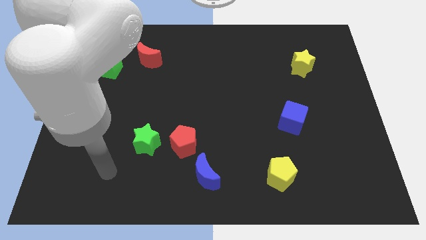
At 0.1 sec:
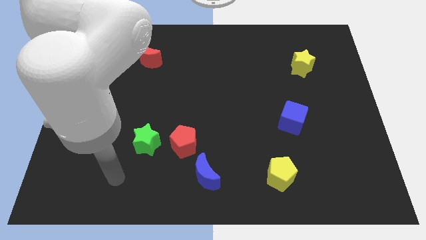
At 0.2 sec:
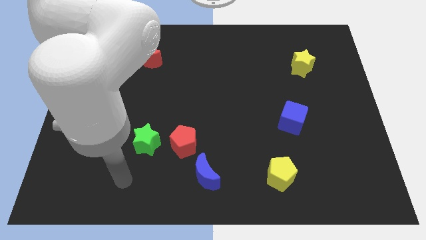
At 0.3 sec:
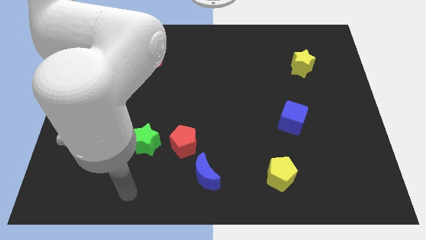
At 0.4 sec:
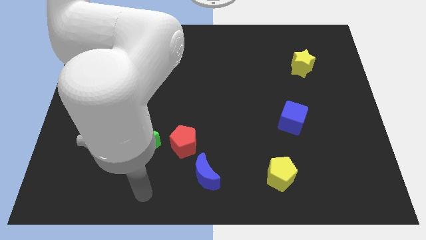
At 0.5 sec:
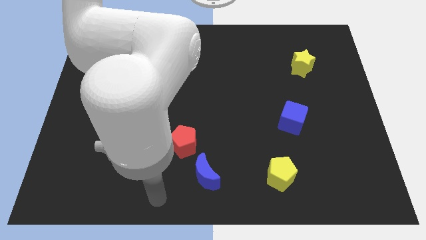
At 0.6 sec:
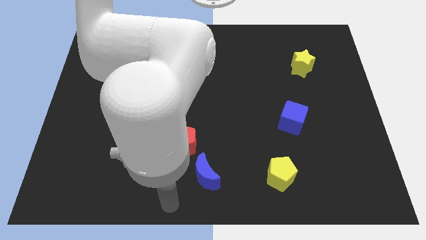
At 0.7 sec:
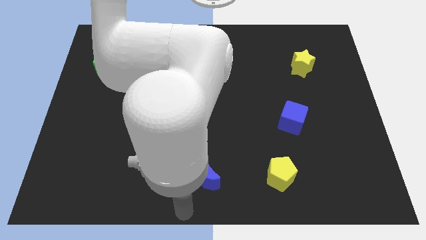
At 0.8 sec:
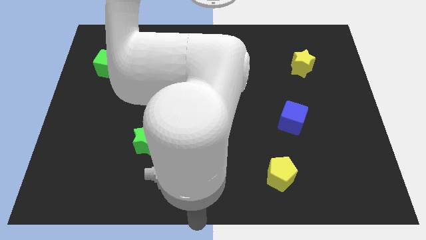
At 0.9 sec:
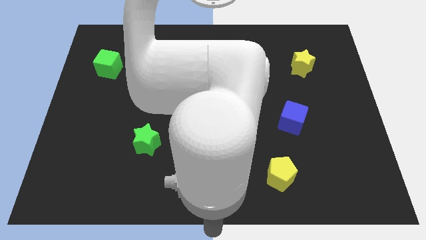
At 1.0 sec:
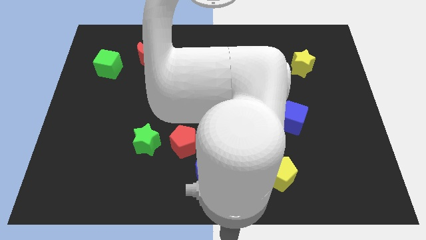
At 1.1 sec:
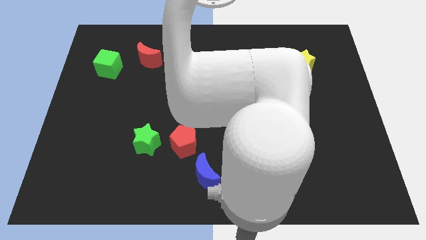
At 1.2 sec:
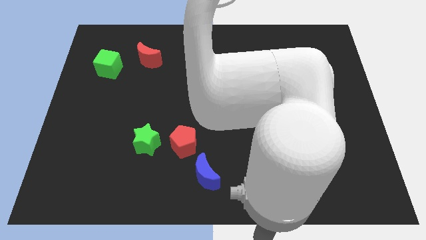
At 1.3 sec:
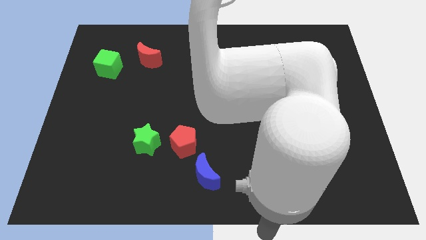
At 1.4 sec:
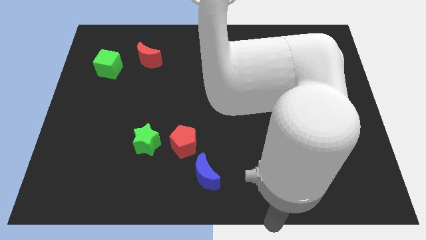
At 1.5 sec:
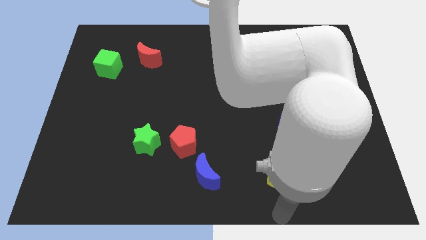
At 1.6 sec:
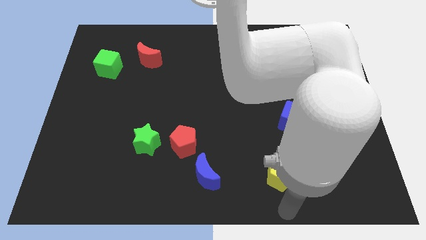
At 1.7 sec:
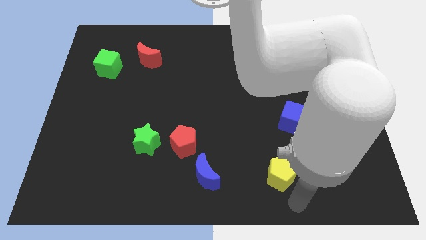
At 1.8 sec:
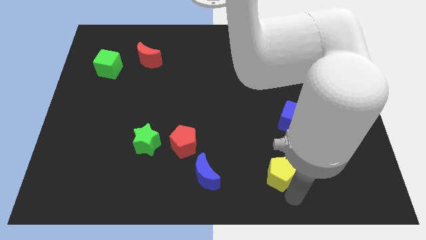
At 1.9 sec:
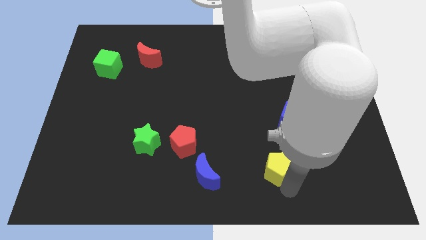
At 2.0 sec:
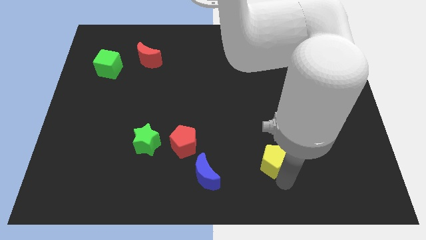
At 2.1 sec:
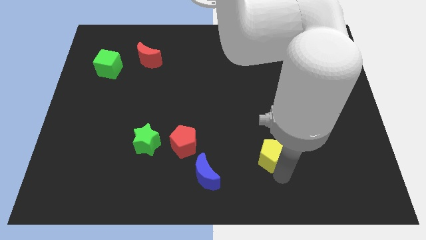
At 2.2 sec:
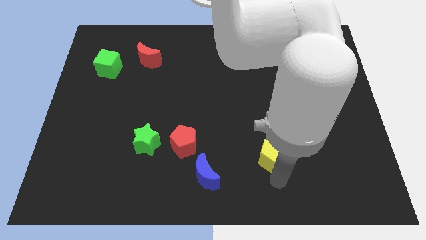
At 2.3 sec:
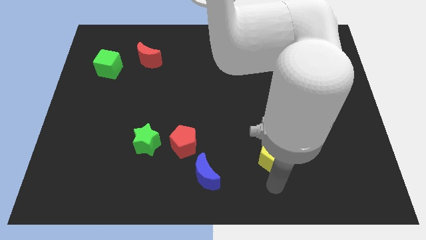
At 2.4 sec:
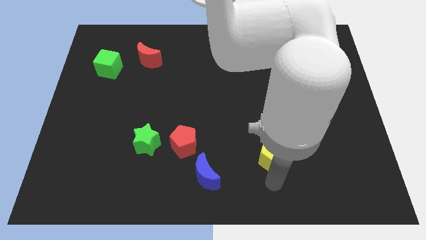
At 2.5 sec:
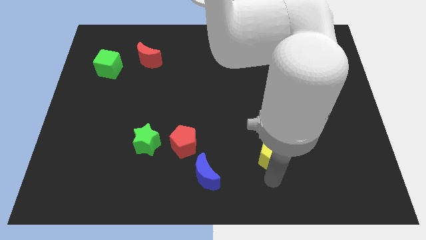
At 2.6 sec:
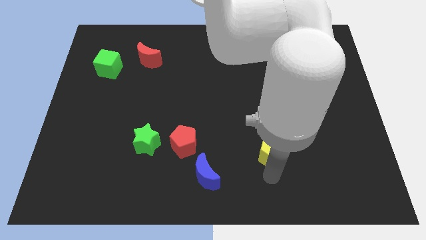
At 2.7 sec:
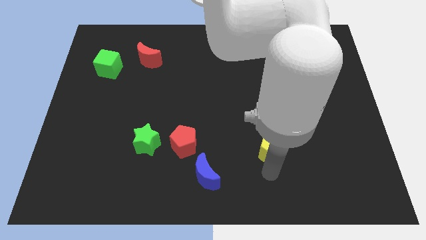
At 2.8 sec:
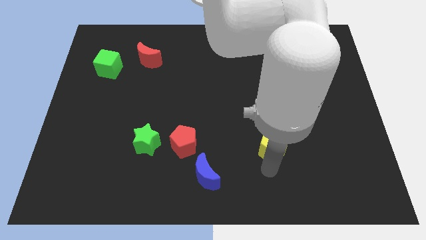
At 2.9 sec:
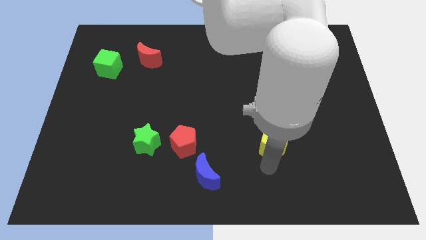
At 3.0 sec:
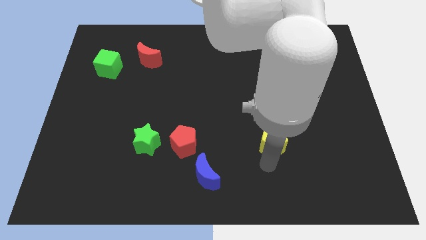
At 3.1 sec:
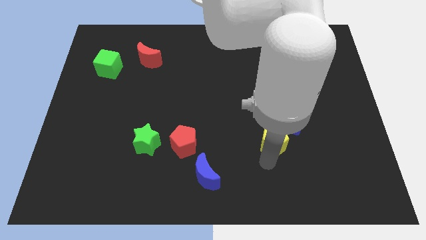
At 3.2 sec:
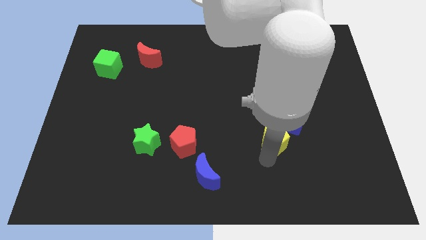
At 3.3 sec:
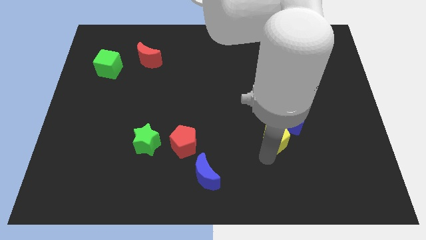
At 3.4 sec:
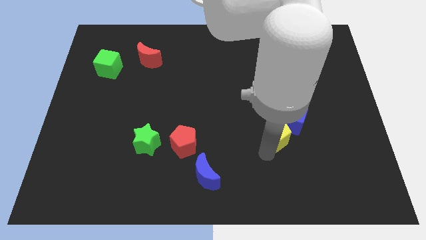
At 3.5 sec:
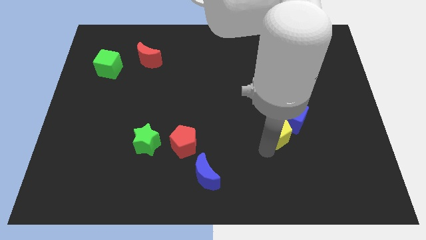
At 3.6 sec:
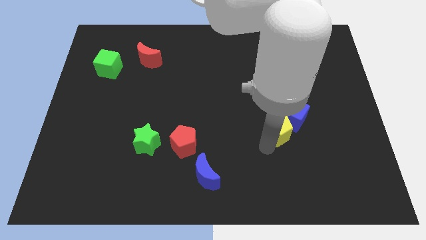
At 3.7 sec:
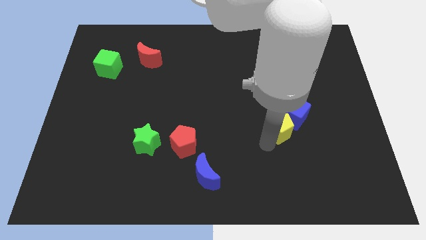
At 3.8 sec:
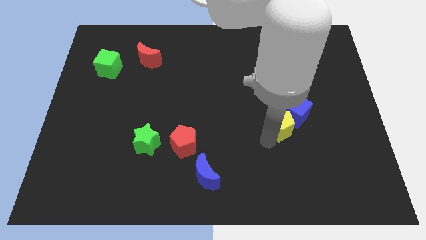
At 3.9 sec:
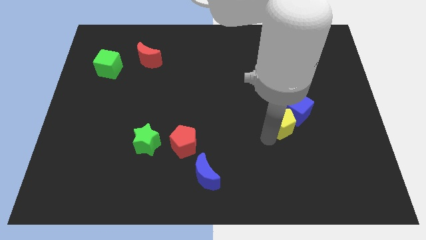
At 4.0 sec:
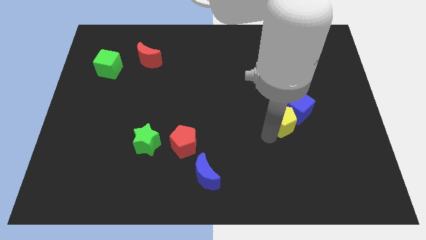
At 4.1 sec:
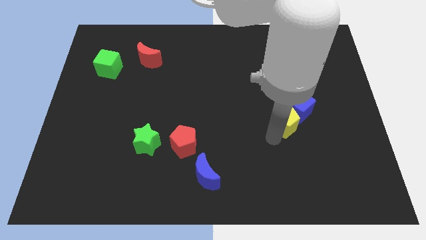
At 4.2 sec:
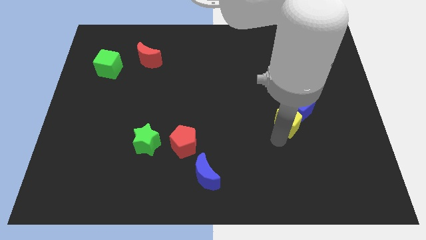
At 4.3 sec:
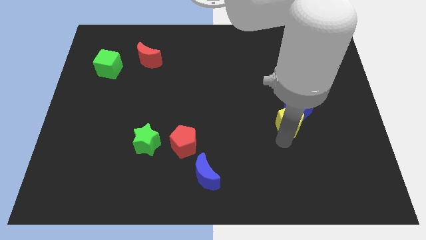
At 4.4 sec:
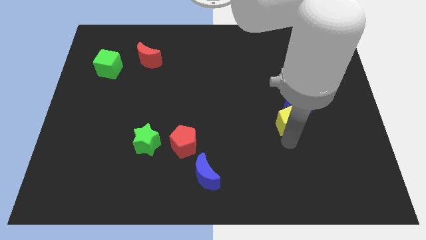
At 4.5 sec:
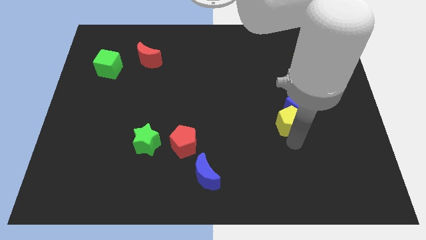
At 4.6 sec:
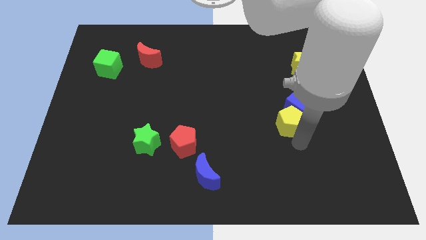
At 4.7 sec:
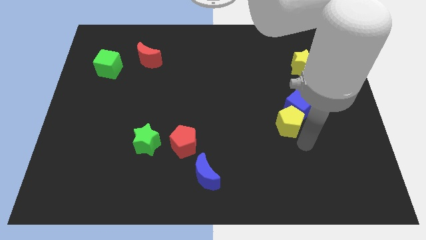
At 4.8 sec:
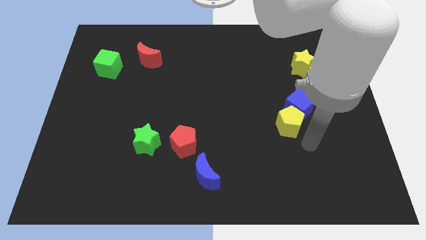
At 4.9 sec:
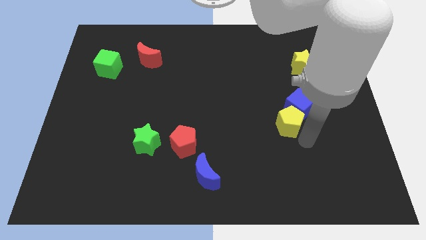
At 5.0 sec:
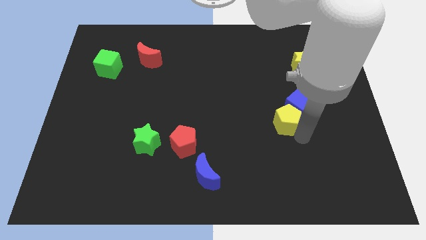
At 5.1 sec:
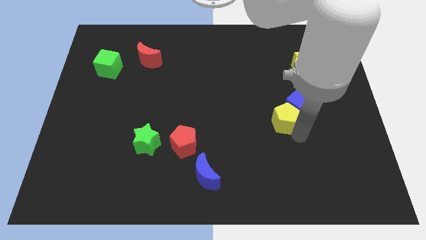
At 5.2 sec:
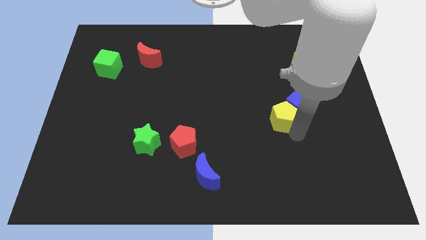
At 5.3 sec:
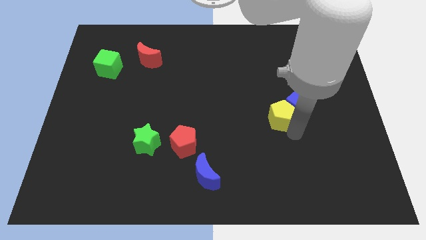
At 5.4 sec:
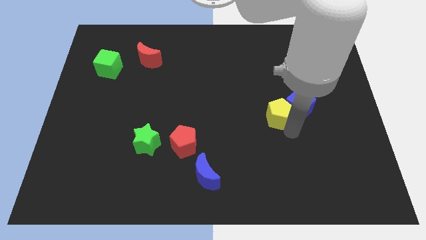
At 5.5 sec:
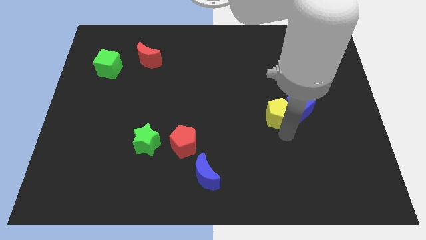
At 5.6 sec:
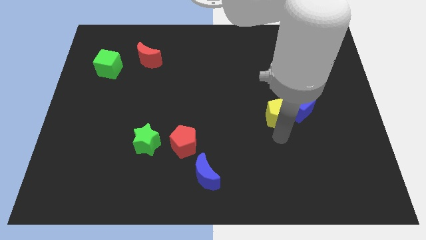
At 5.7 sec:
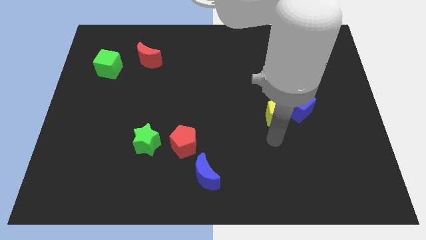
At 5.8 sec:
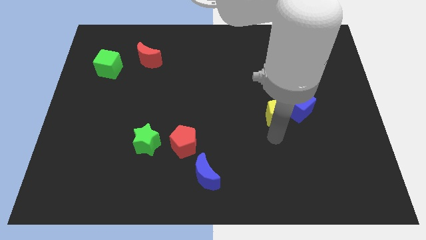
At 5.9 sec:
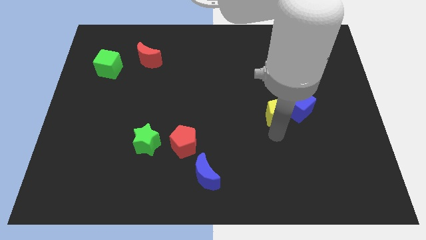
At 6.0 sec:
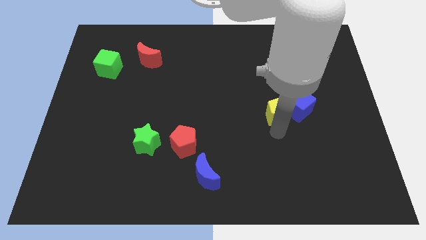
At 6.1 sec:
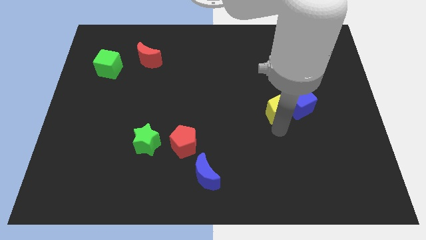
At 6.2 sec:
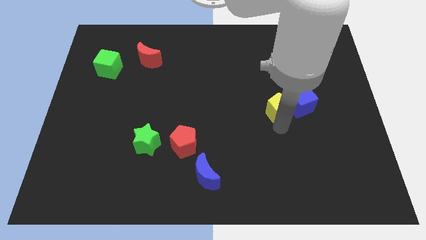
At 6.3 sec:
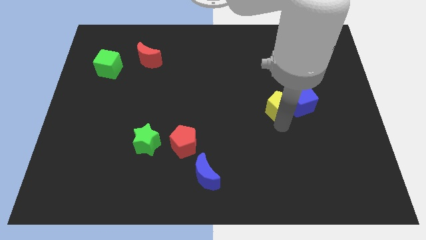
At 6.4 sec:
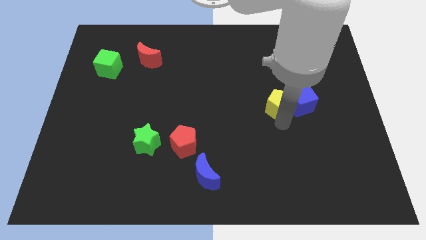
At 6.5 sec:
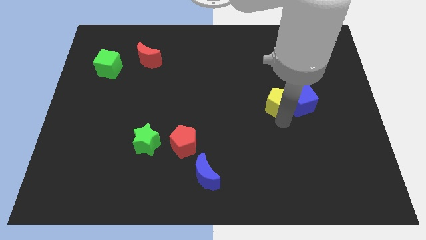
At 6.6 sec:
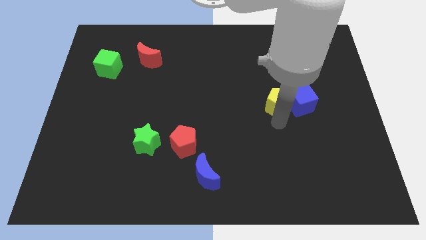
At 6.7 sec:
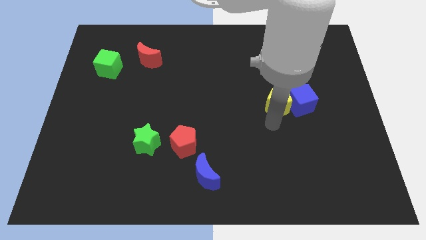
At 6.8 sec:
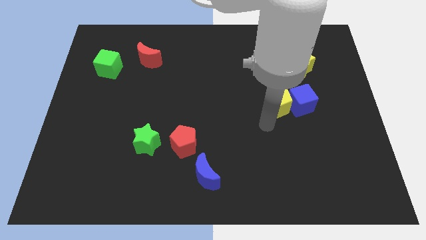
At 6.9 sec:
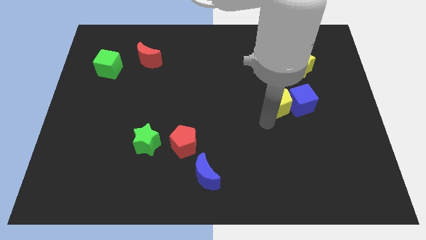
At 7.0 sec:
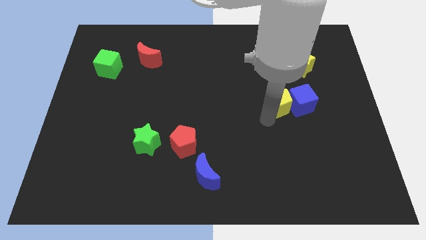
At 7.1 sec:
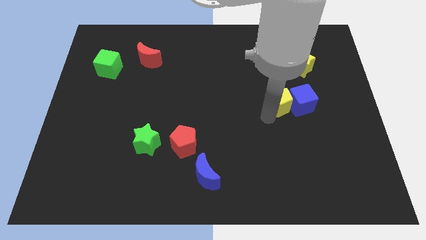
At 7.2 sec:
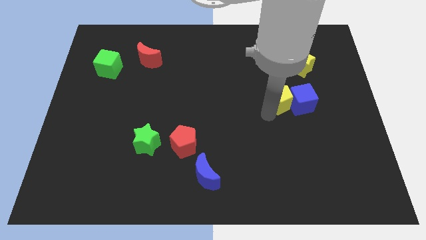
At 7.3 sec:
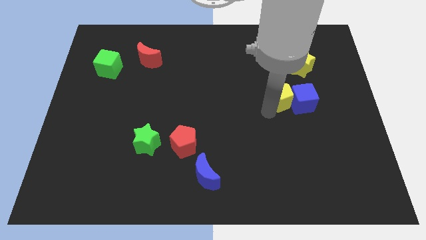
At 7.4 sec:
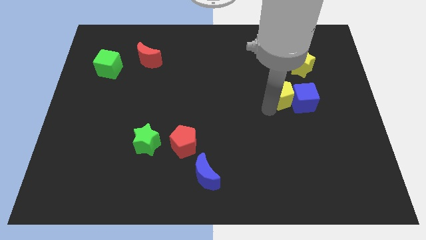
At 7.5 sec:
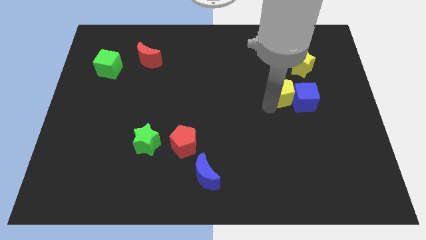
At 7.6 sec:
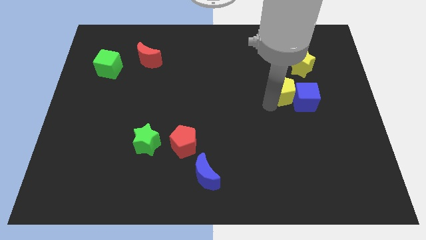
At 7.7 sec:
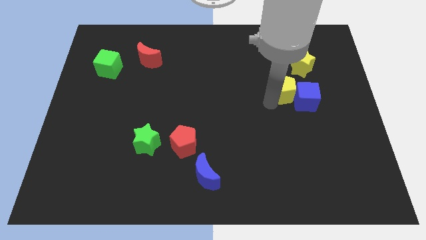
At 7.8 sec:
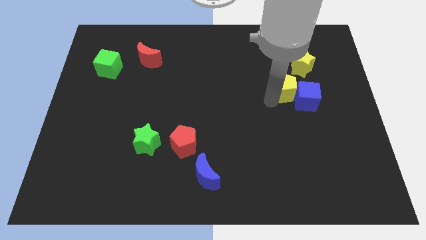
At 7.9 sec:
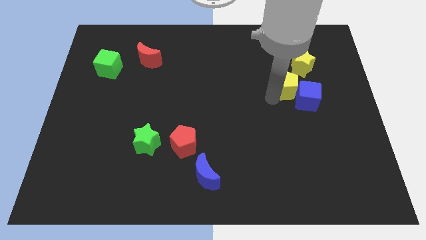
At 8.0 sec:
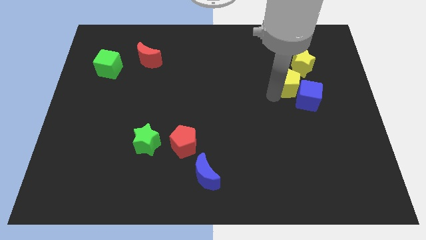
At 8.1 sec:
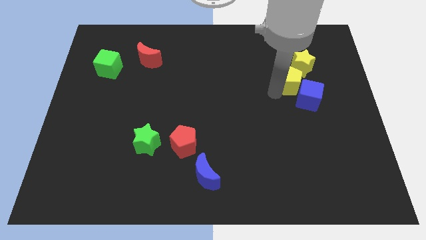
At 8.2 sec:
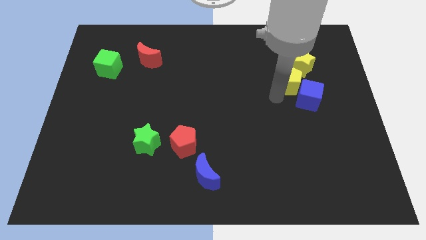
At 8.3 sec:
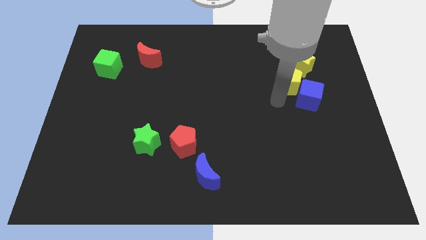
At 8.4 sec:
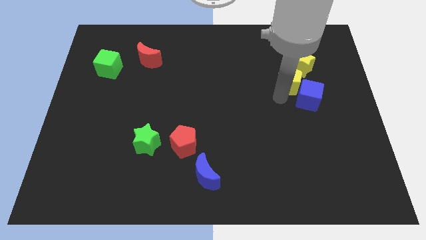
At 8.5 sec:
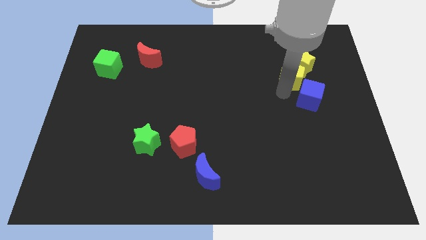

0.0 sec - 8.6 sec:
slide the yellow pentagon towards the yellow star
